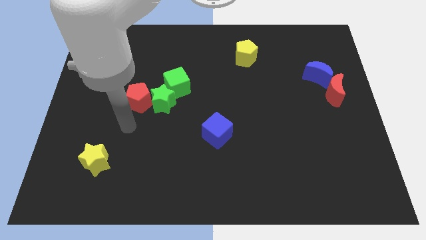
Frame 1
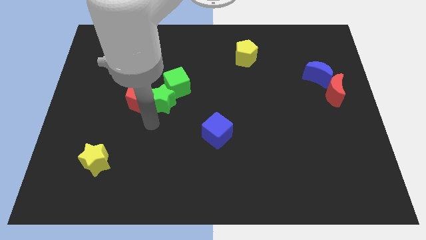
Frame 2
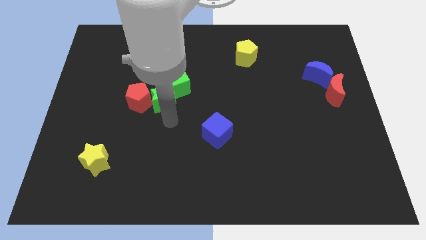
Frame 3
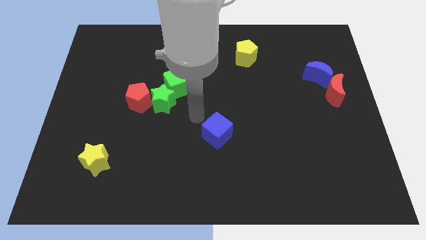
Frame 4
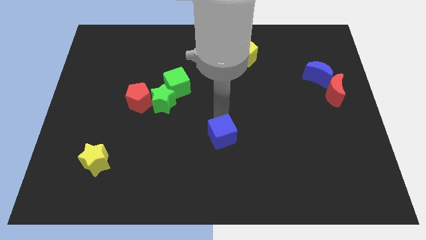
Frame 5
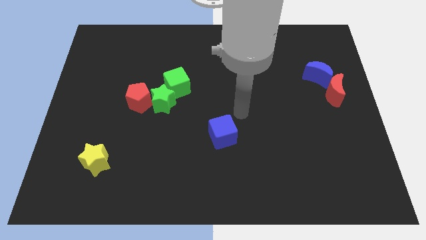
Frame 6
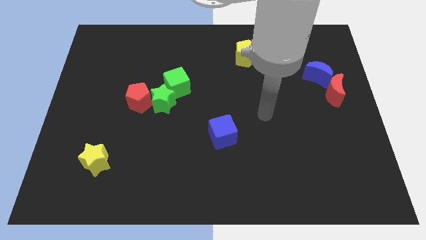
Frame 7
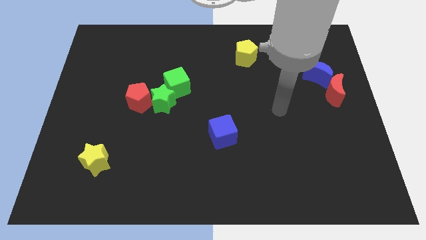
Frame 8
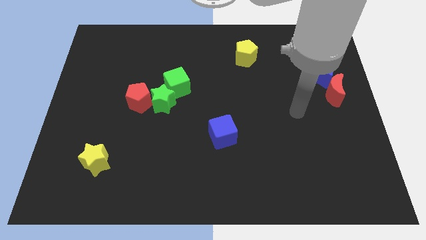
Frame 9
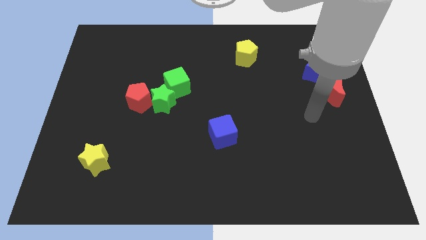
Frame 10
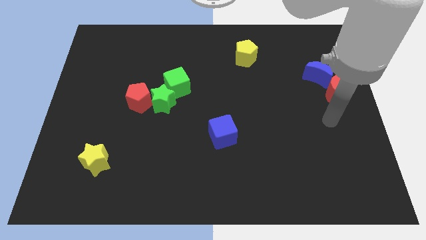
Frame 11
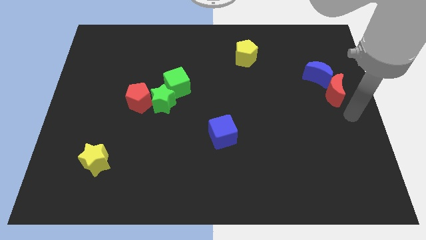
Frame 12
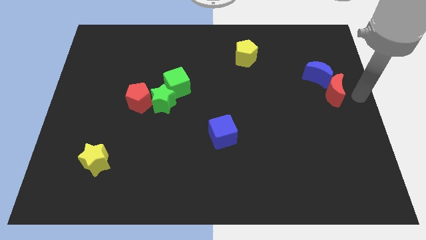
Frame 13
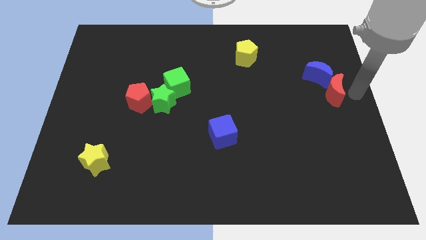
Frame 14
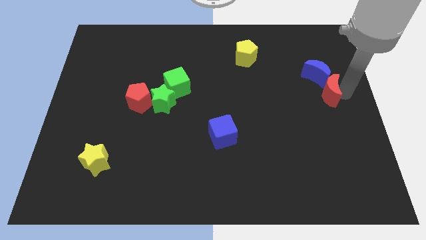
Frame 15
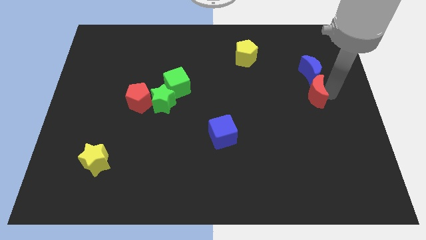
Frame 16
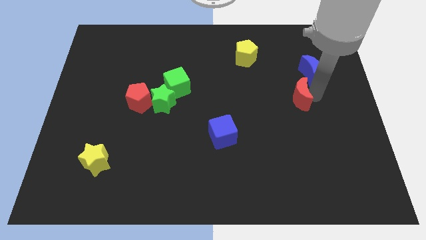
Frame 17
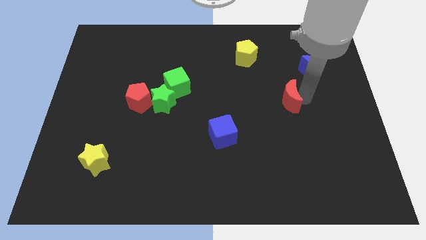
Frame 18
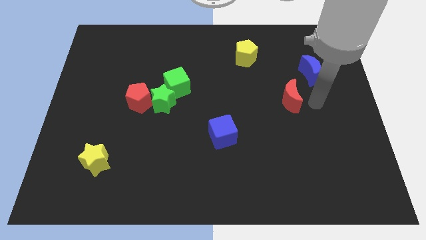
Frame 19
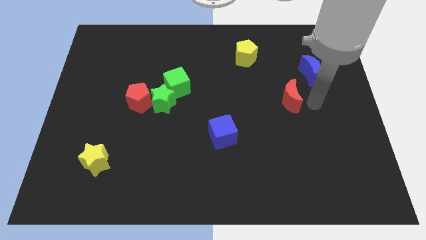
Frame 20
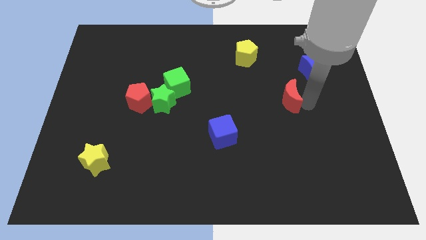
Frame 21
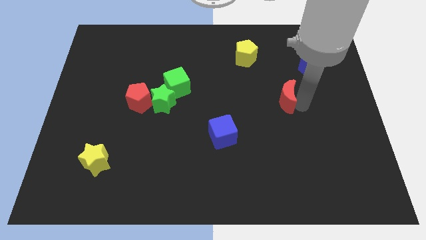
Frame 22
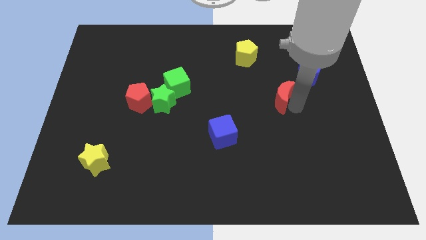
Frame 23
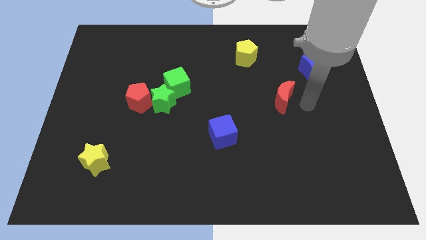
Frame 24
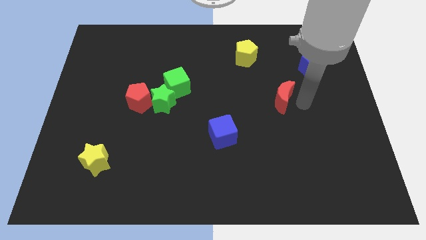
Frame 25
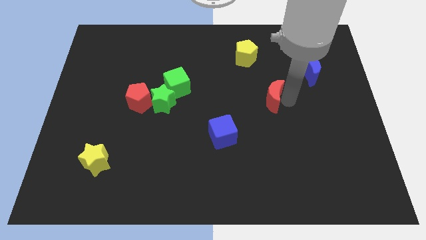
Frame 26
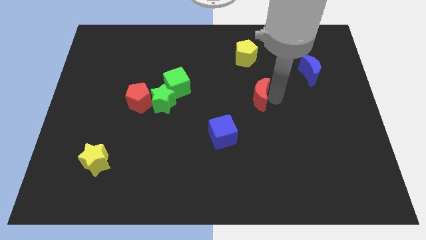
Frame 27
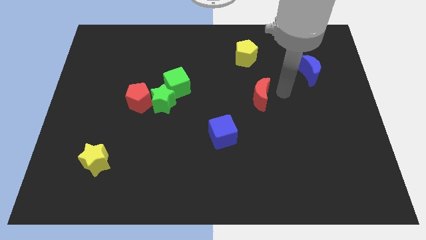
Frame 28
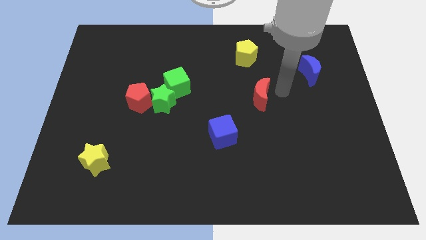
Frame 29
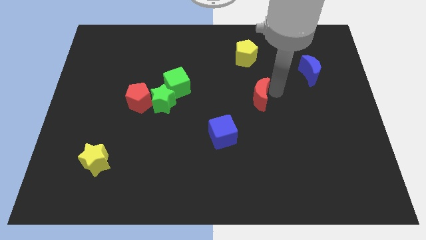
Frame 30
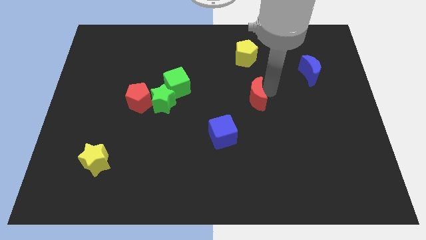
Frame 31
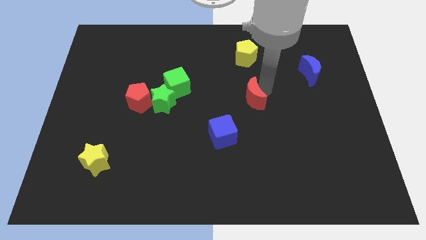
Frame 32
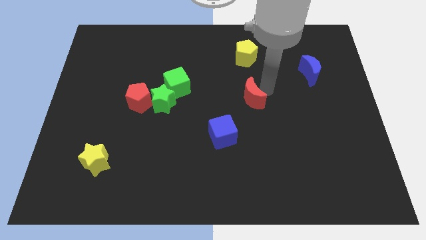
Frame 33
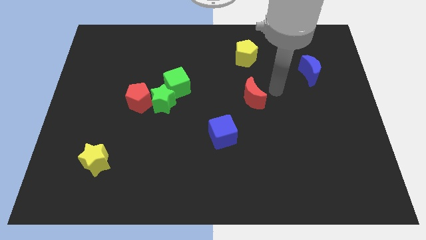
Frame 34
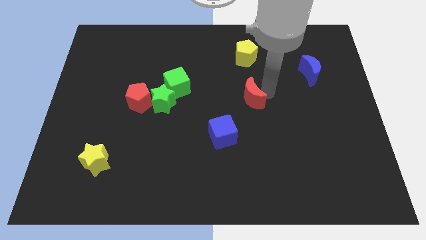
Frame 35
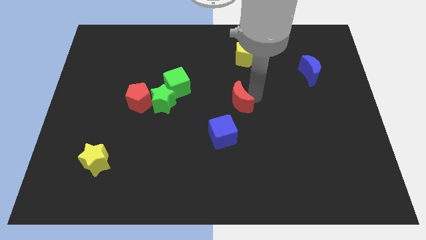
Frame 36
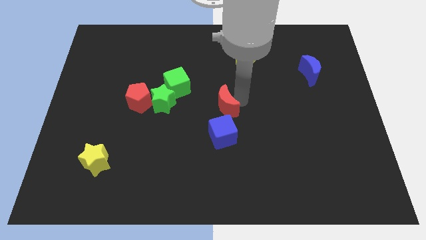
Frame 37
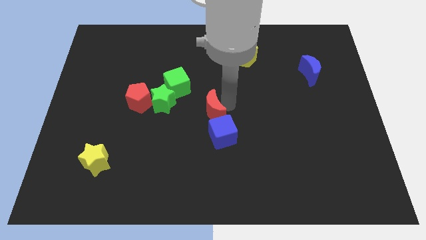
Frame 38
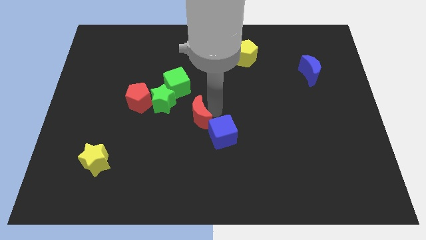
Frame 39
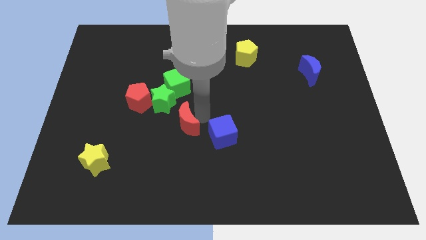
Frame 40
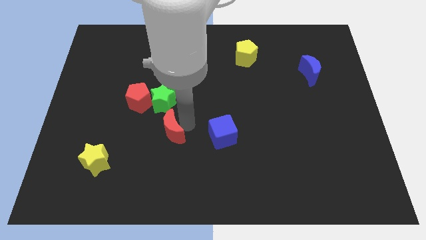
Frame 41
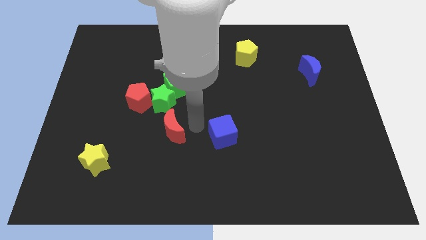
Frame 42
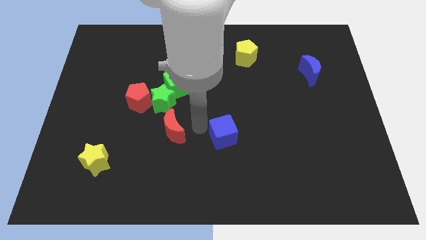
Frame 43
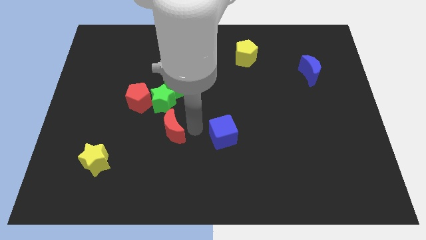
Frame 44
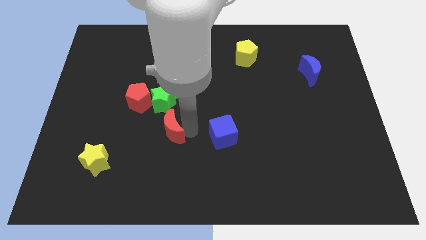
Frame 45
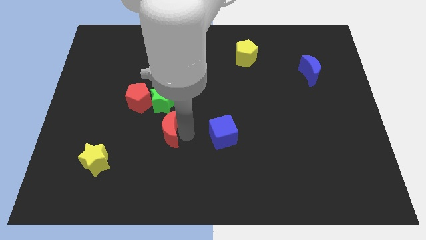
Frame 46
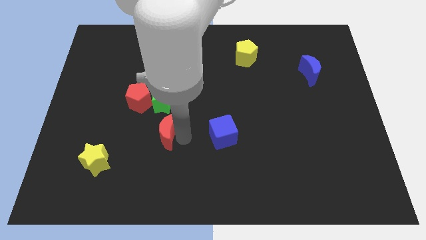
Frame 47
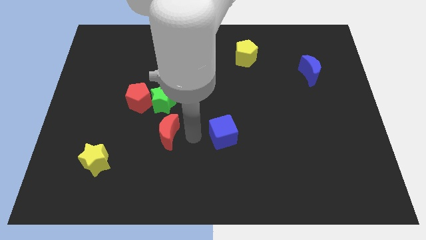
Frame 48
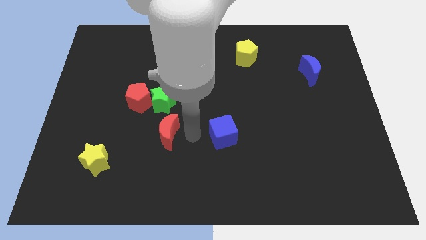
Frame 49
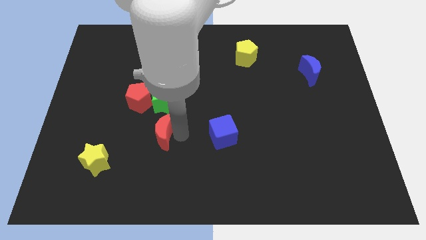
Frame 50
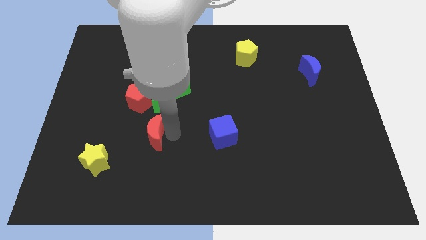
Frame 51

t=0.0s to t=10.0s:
move the red moon below the red pentagon

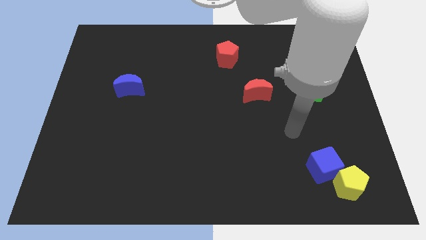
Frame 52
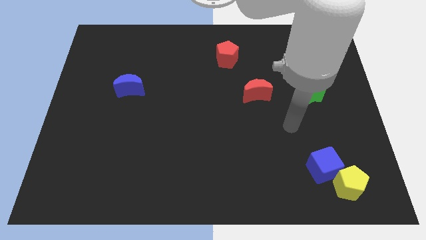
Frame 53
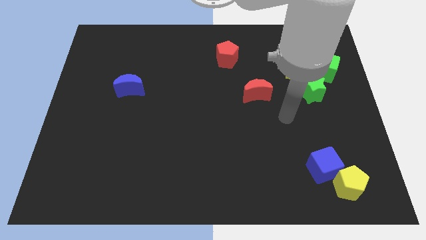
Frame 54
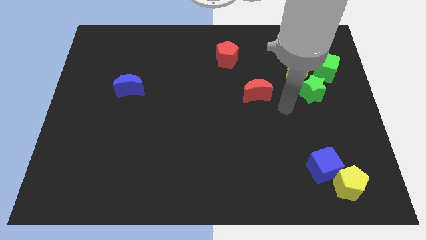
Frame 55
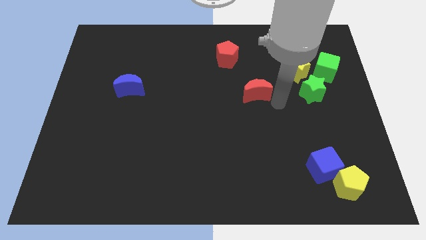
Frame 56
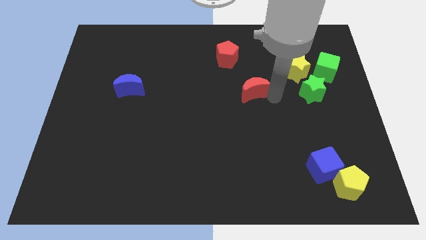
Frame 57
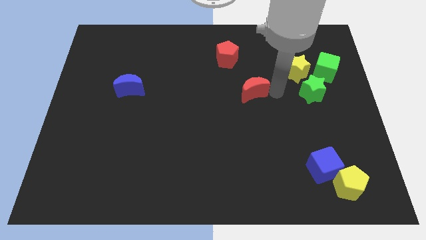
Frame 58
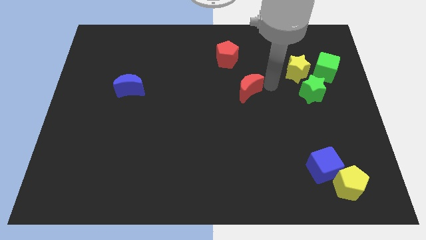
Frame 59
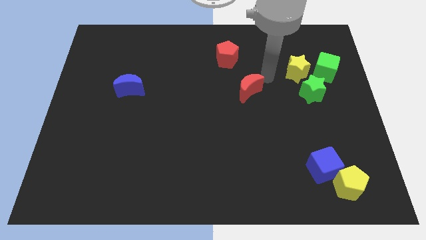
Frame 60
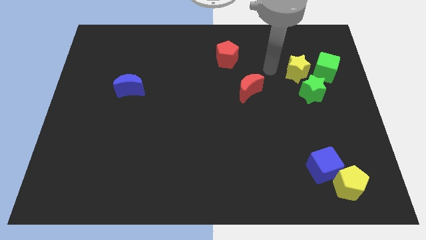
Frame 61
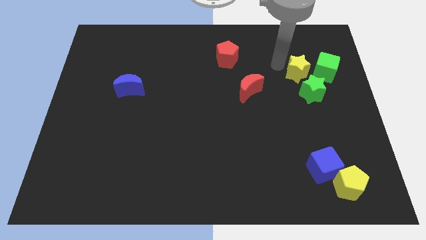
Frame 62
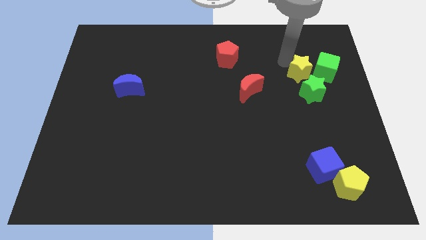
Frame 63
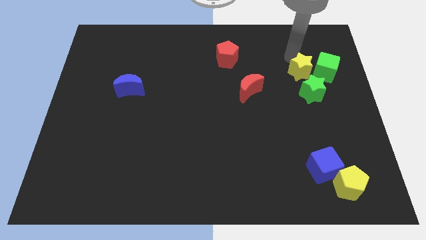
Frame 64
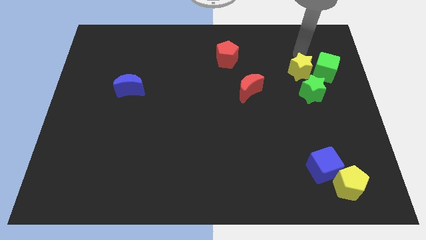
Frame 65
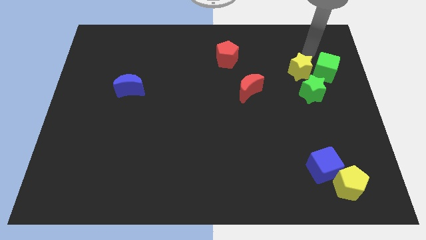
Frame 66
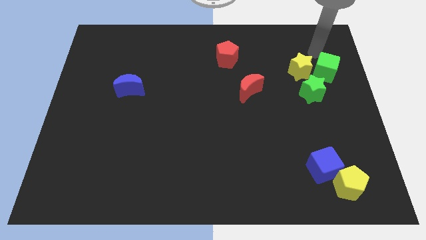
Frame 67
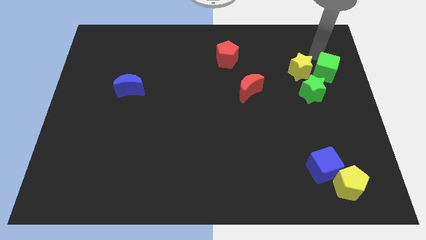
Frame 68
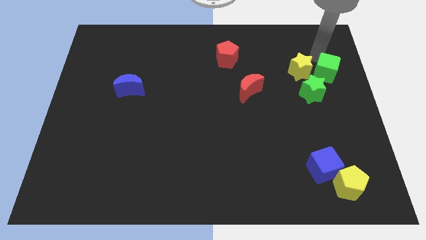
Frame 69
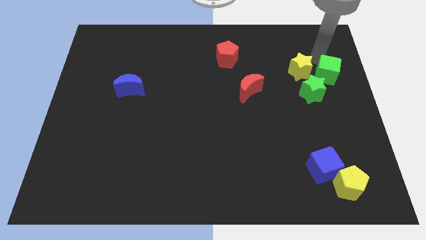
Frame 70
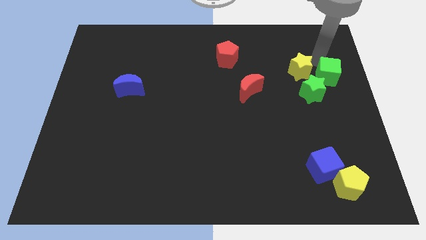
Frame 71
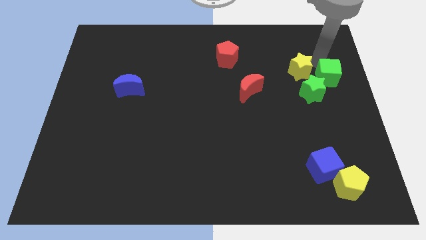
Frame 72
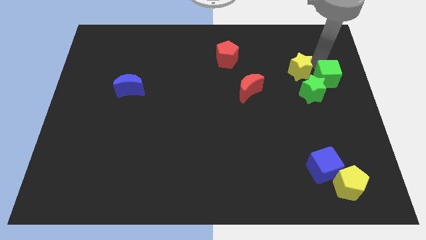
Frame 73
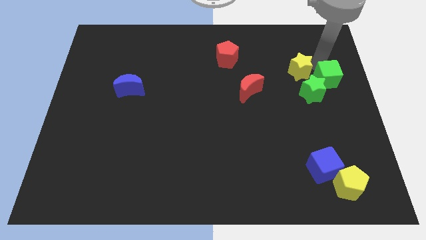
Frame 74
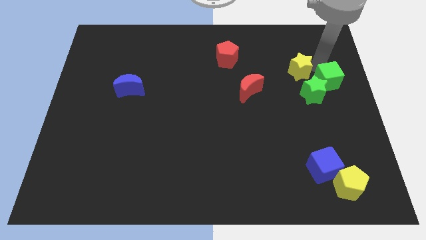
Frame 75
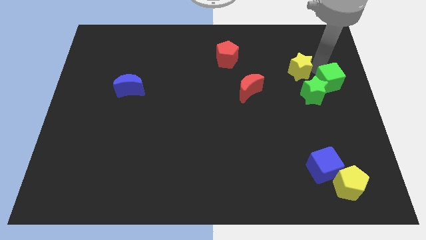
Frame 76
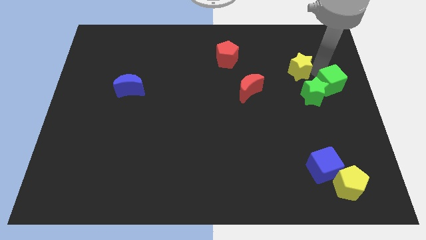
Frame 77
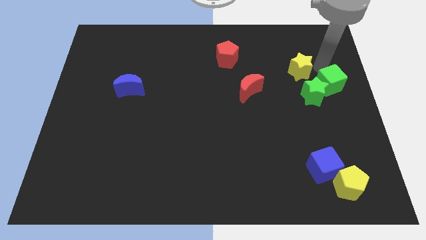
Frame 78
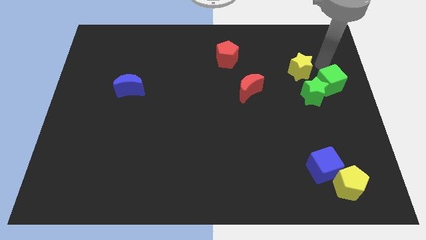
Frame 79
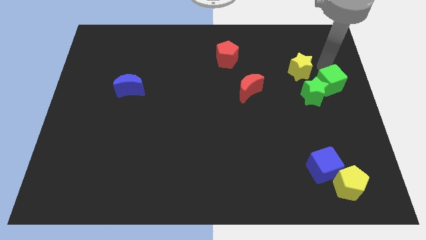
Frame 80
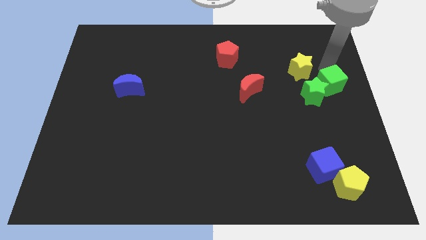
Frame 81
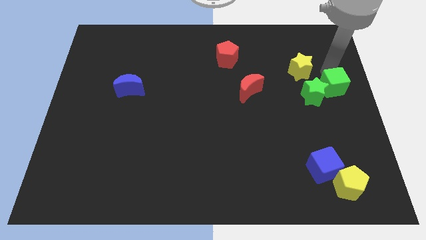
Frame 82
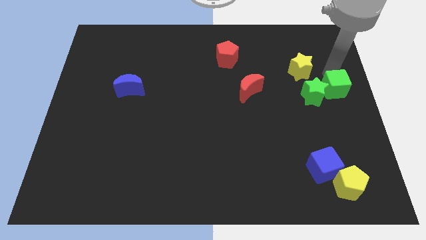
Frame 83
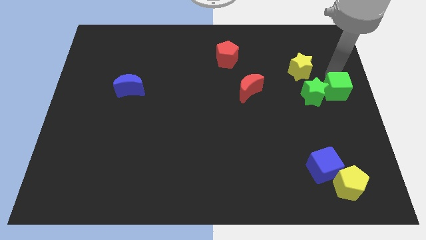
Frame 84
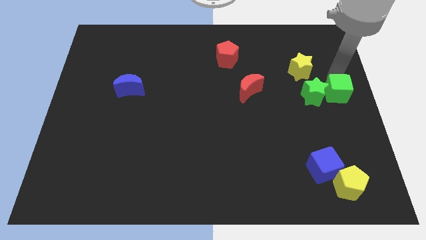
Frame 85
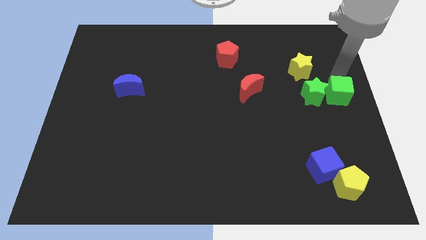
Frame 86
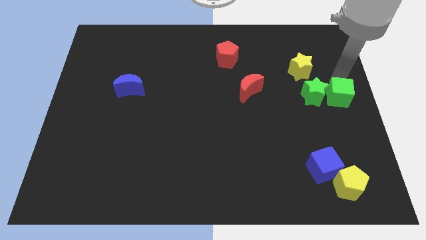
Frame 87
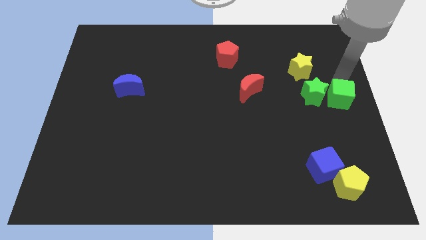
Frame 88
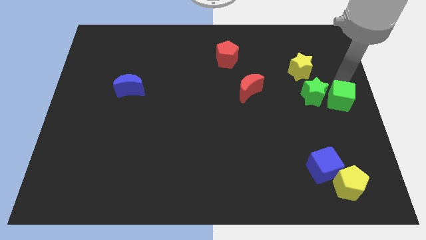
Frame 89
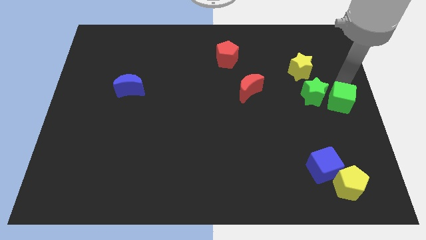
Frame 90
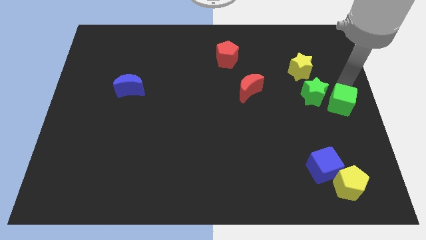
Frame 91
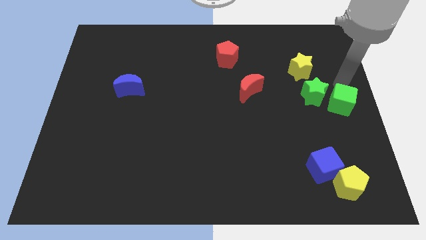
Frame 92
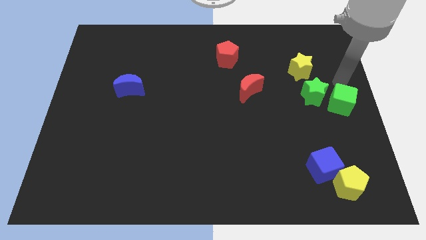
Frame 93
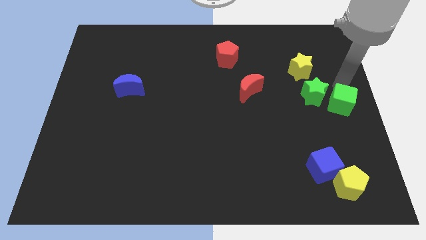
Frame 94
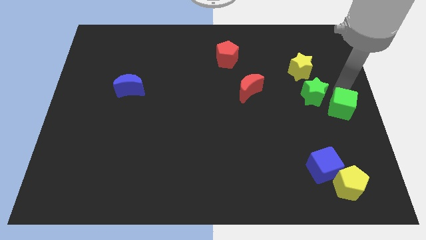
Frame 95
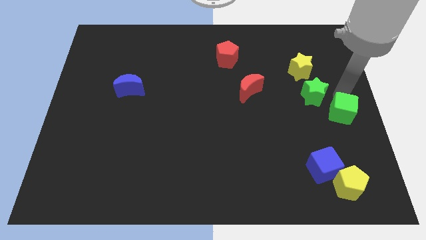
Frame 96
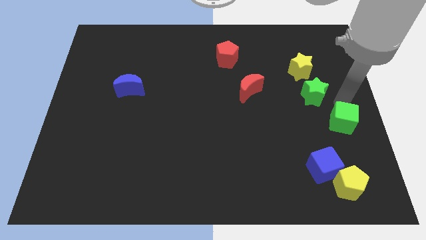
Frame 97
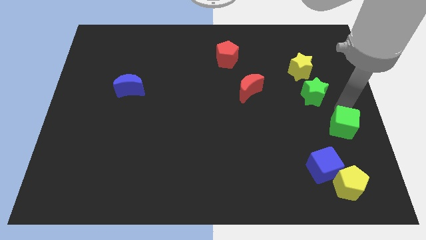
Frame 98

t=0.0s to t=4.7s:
put the green cube to the top side of the yellow pentagon
